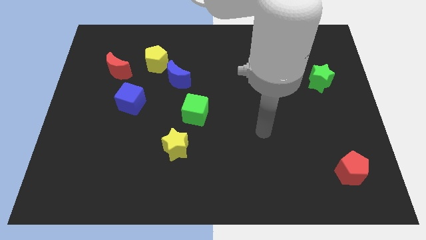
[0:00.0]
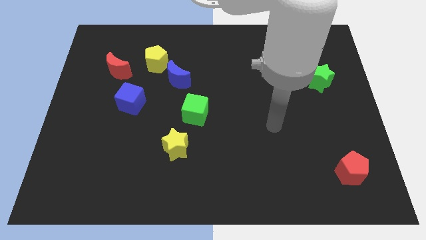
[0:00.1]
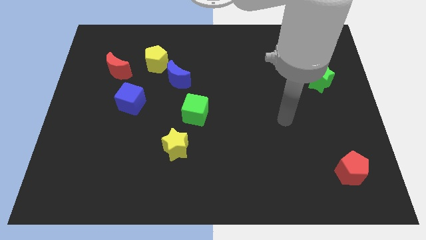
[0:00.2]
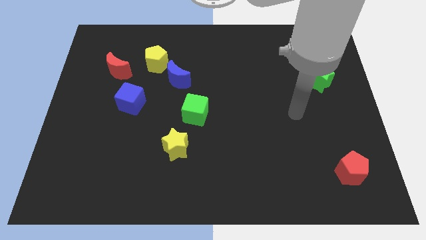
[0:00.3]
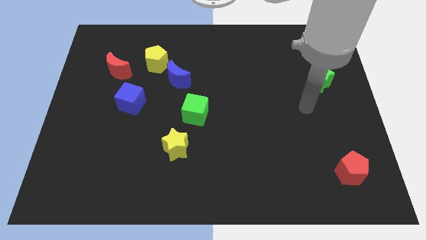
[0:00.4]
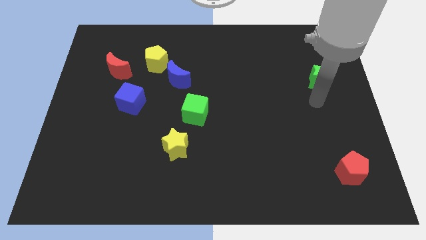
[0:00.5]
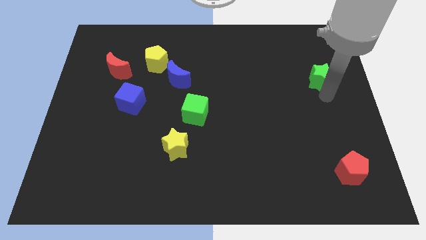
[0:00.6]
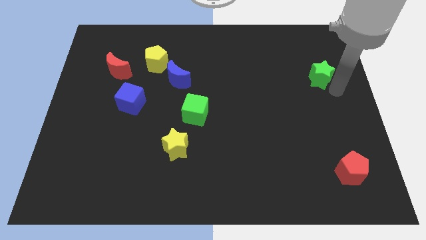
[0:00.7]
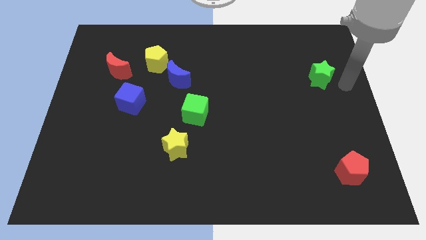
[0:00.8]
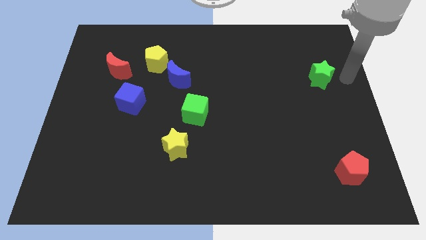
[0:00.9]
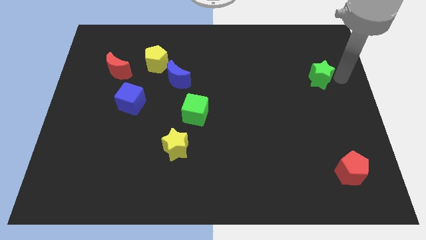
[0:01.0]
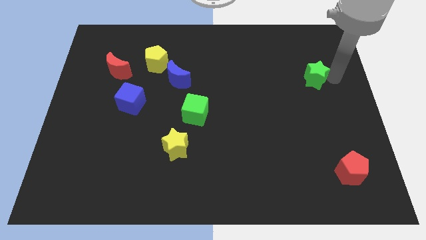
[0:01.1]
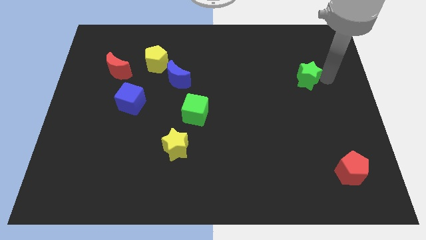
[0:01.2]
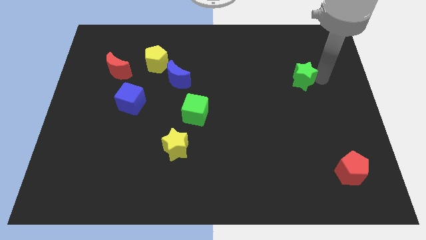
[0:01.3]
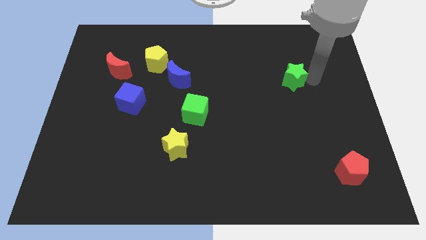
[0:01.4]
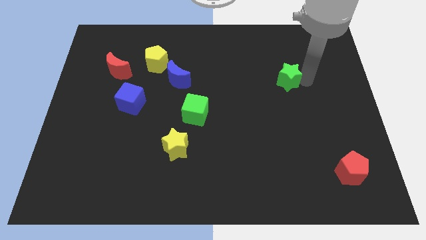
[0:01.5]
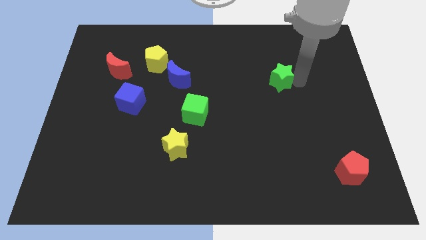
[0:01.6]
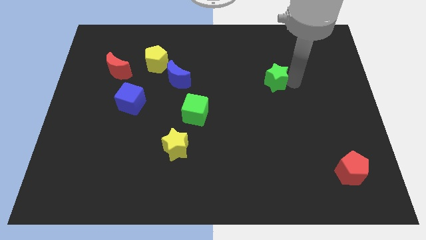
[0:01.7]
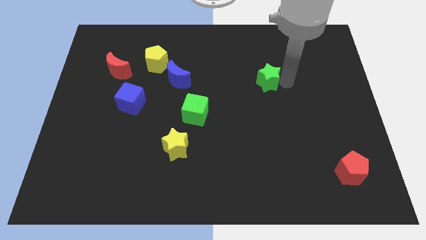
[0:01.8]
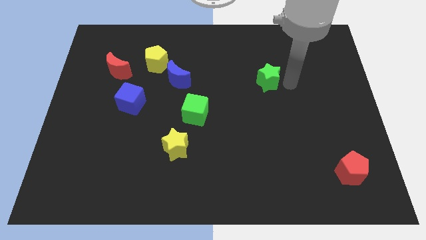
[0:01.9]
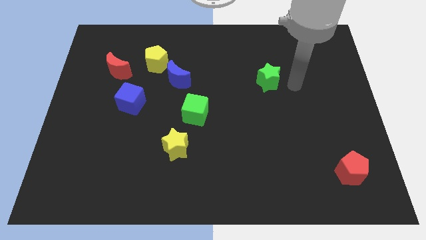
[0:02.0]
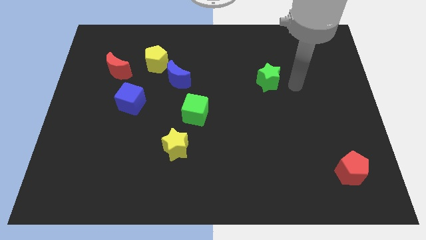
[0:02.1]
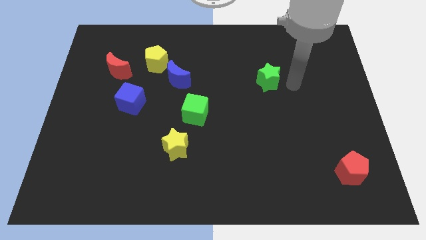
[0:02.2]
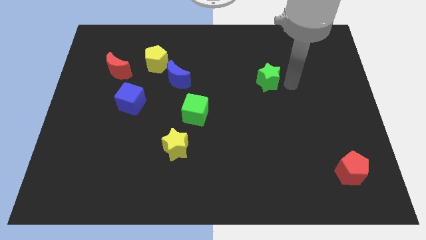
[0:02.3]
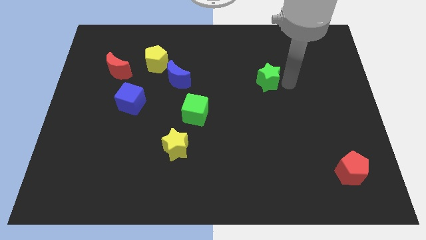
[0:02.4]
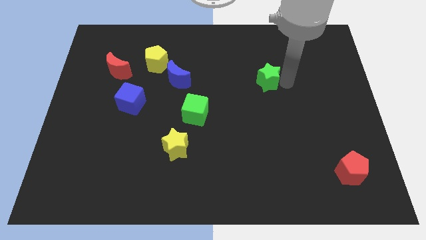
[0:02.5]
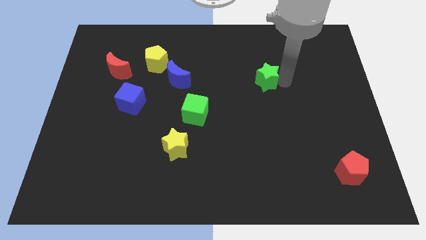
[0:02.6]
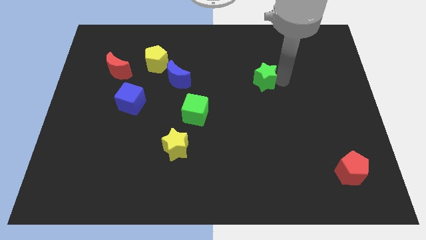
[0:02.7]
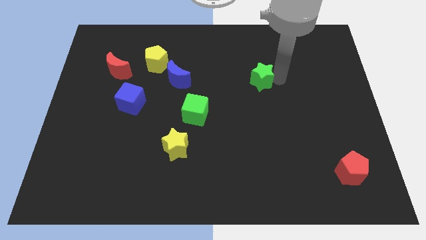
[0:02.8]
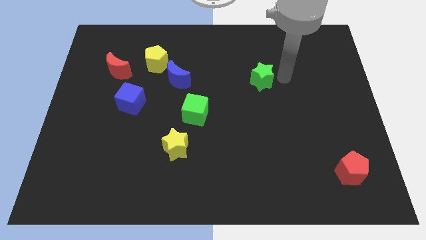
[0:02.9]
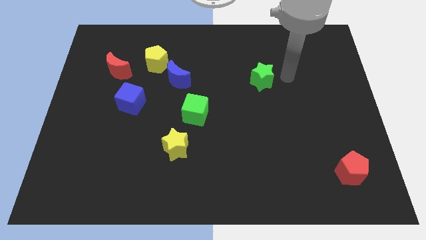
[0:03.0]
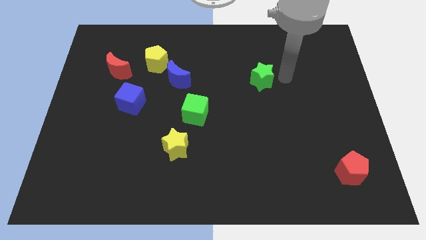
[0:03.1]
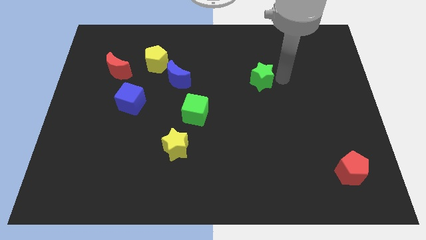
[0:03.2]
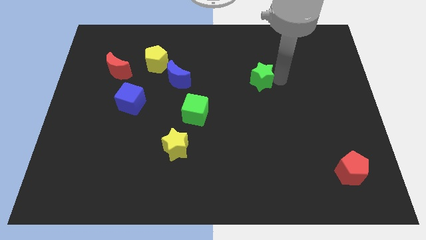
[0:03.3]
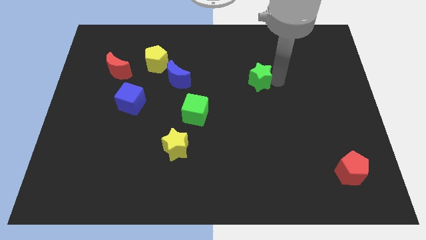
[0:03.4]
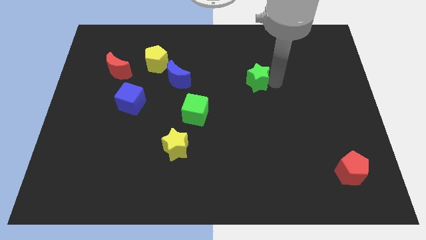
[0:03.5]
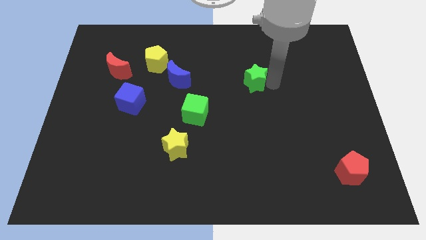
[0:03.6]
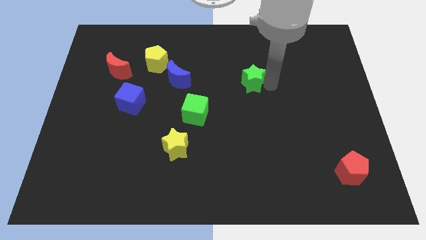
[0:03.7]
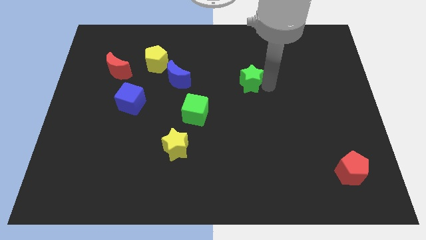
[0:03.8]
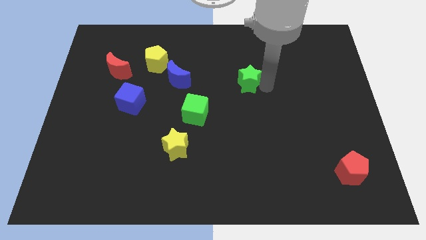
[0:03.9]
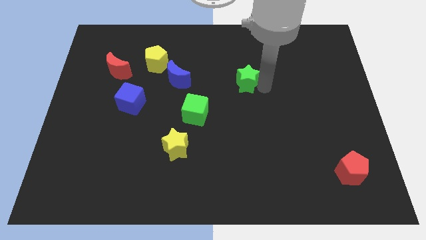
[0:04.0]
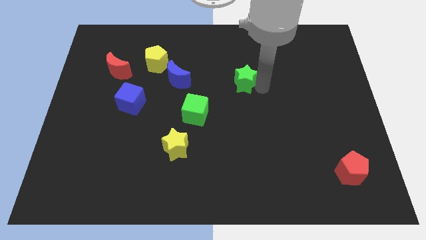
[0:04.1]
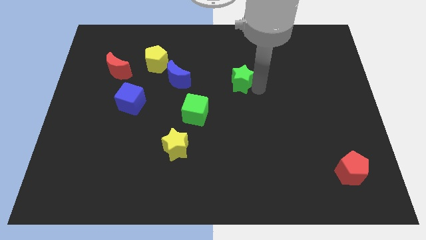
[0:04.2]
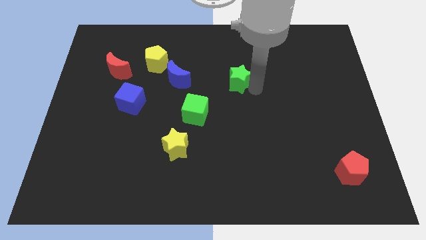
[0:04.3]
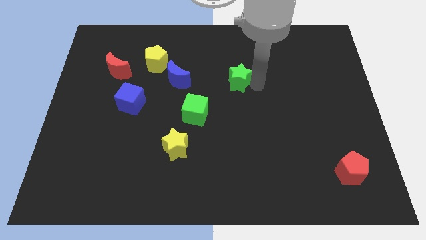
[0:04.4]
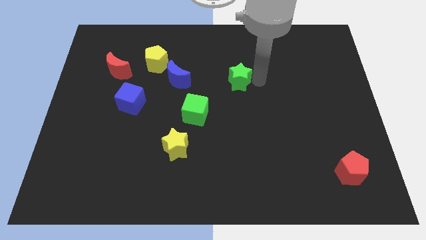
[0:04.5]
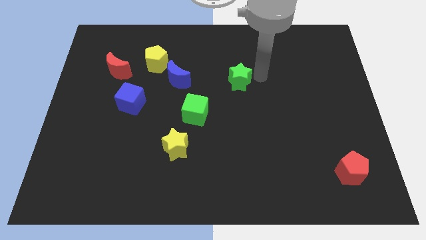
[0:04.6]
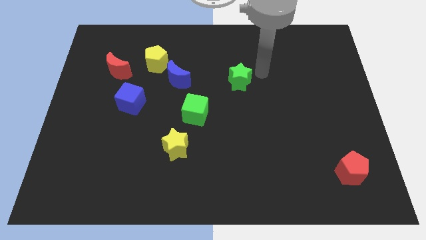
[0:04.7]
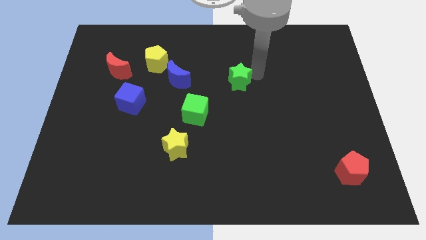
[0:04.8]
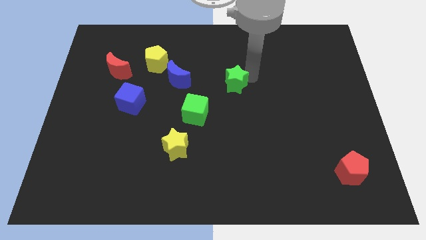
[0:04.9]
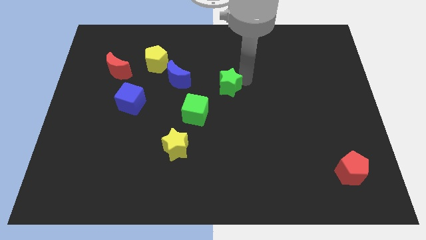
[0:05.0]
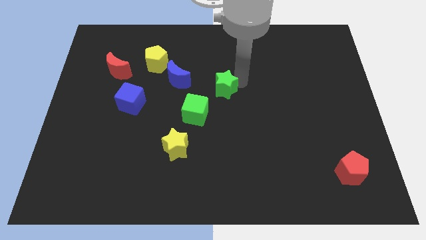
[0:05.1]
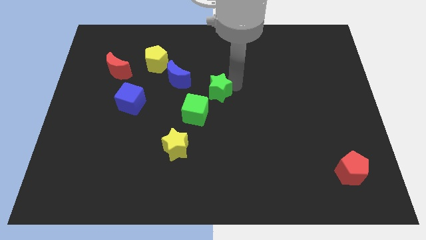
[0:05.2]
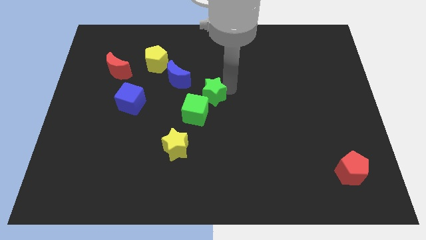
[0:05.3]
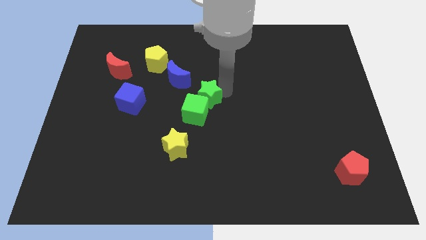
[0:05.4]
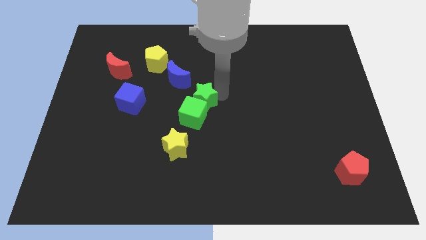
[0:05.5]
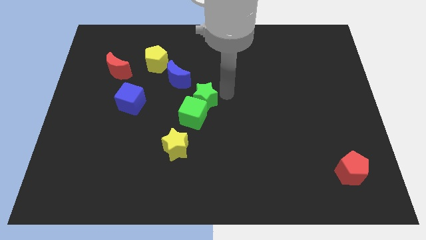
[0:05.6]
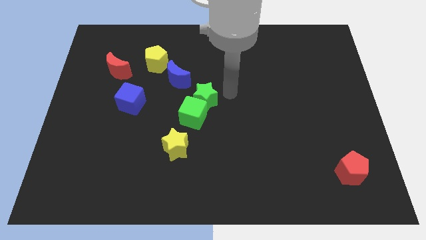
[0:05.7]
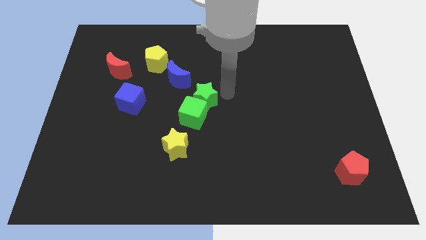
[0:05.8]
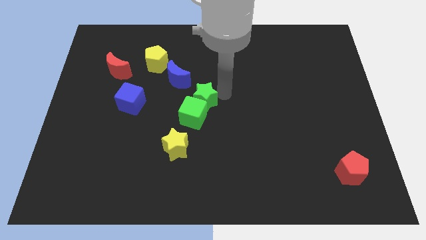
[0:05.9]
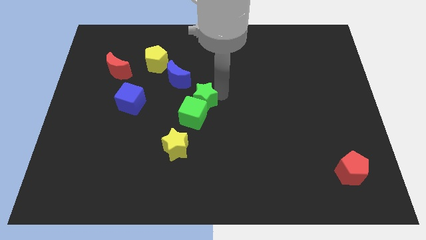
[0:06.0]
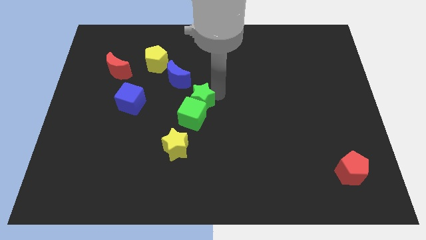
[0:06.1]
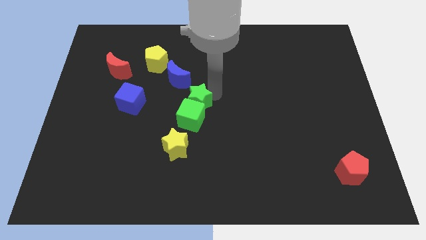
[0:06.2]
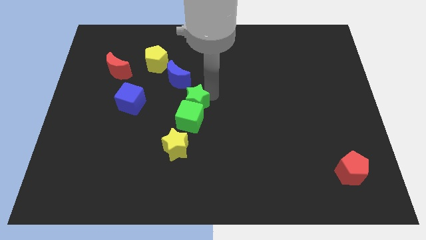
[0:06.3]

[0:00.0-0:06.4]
slide the green star to the top of the yellow star

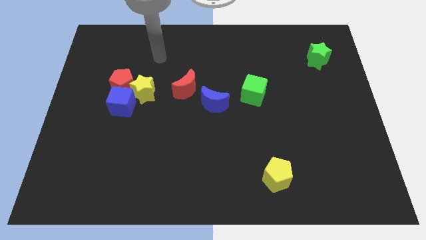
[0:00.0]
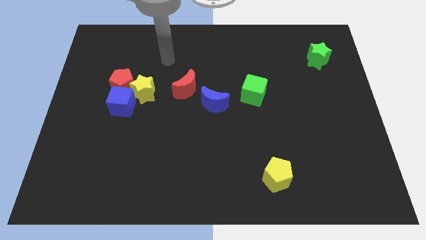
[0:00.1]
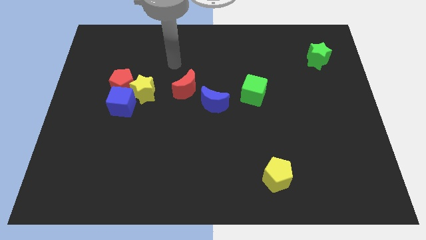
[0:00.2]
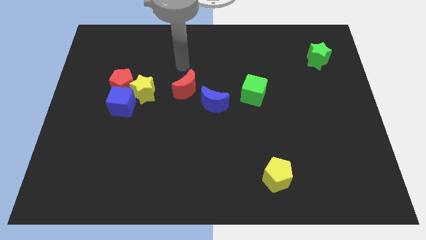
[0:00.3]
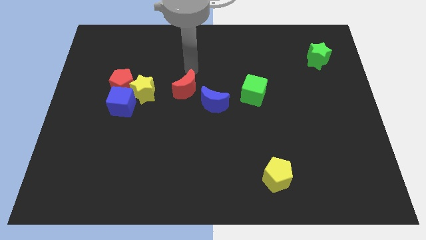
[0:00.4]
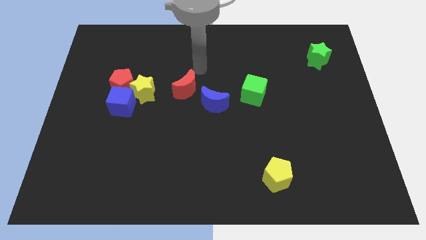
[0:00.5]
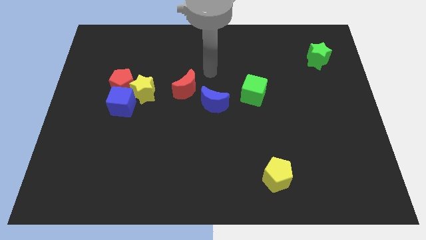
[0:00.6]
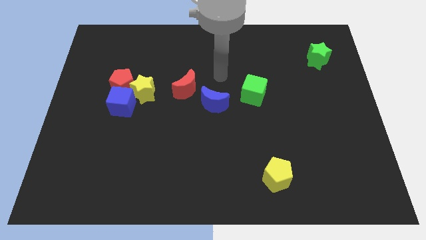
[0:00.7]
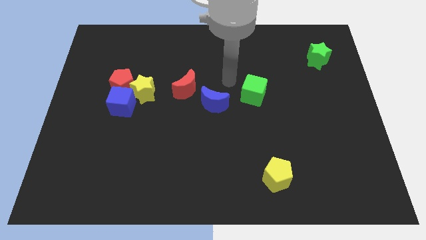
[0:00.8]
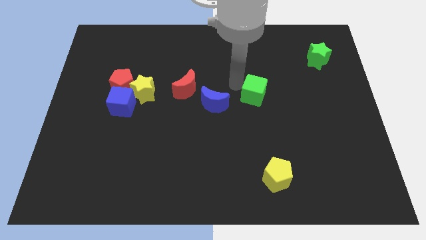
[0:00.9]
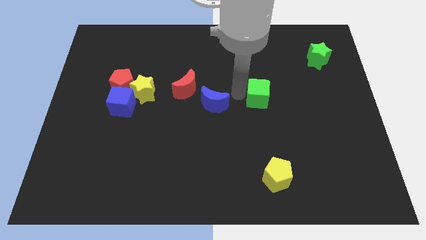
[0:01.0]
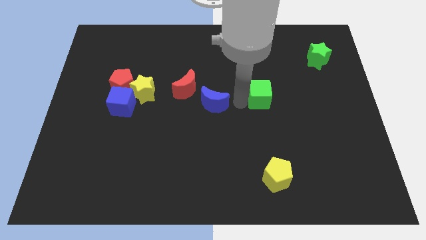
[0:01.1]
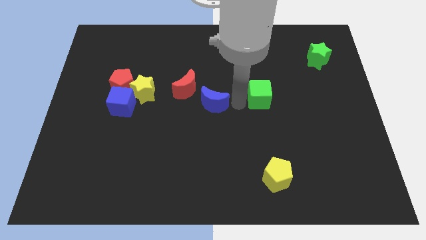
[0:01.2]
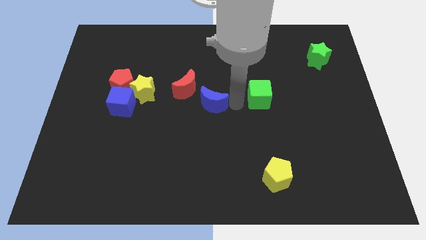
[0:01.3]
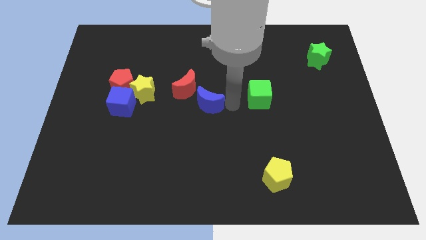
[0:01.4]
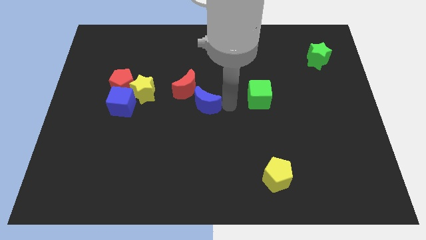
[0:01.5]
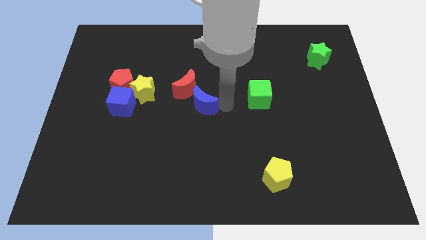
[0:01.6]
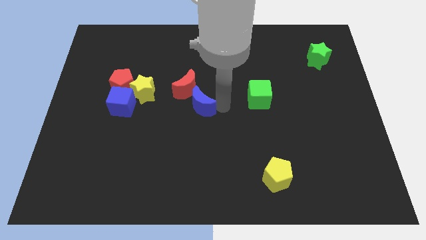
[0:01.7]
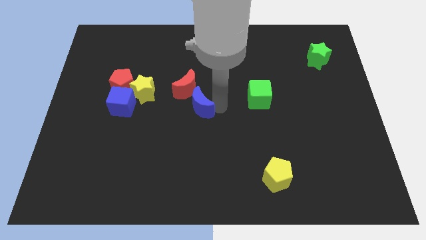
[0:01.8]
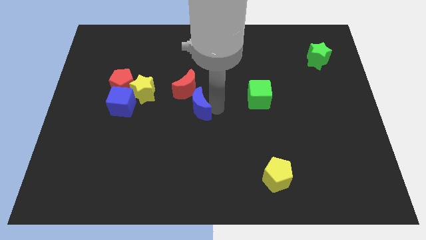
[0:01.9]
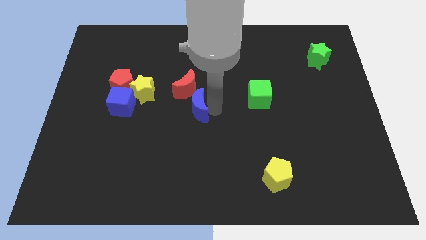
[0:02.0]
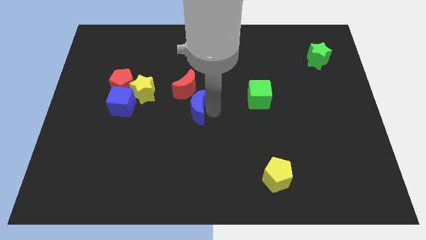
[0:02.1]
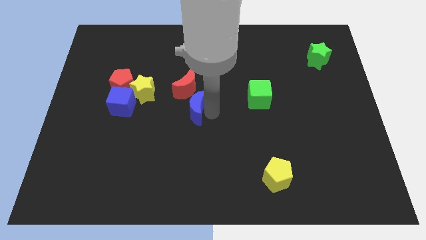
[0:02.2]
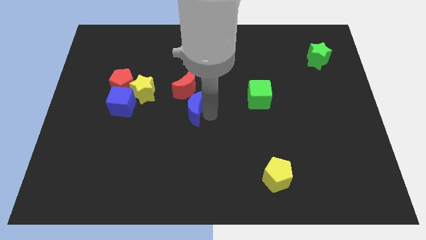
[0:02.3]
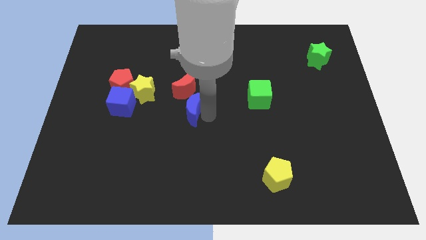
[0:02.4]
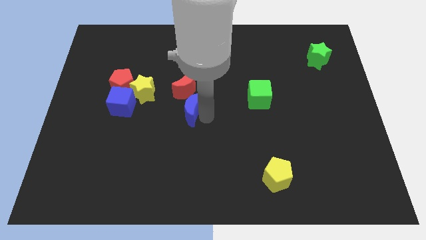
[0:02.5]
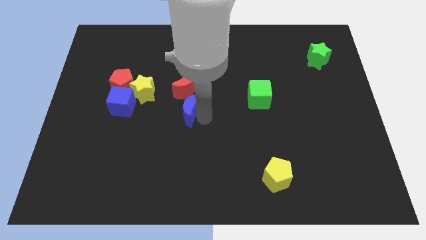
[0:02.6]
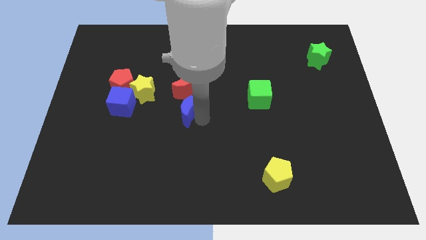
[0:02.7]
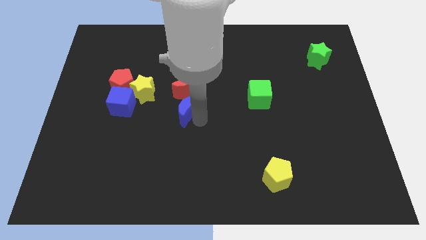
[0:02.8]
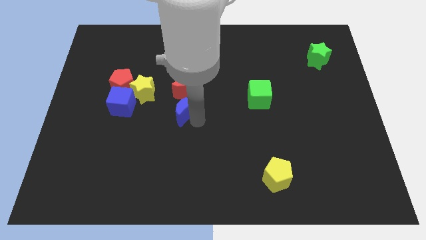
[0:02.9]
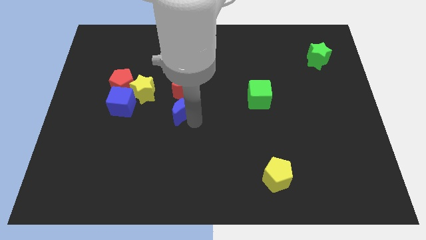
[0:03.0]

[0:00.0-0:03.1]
push the blue moon to the bottom left side of the red moon
